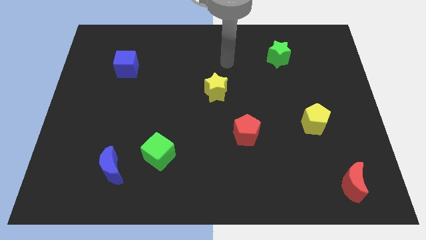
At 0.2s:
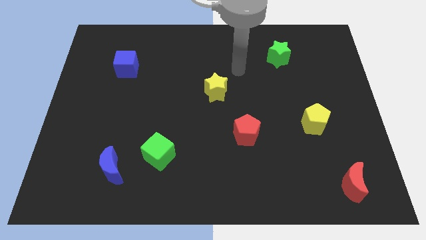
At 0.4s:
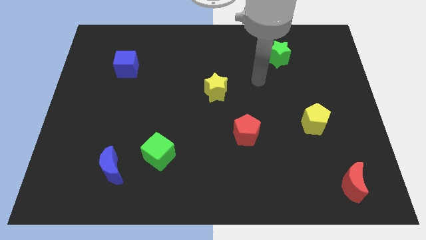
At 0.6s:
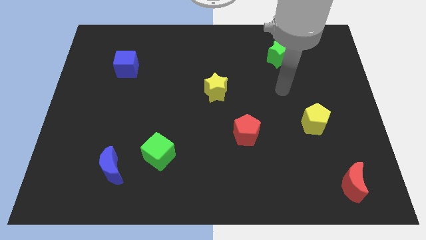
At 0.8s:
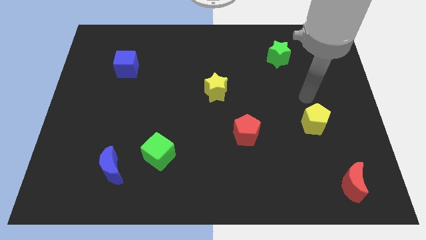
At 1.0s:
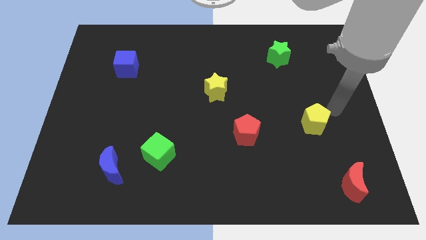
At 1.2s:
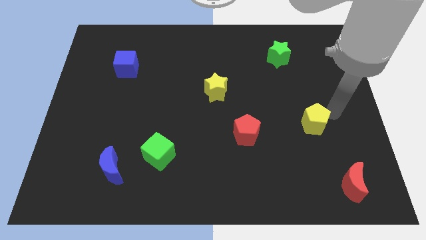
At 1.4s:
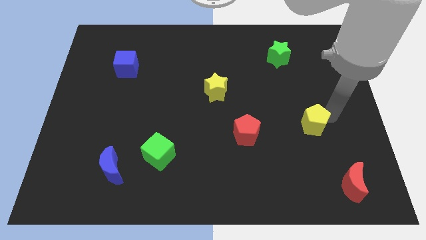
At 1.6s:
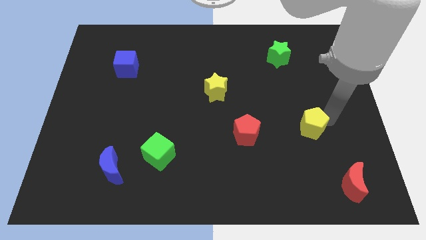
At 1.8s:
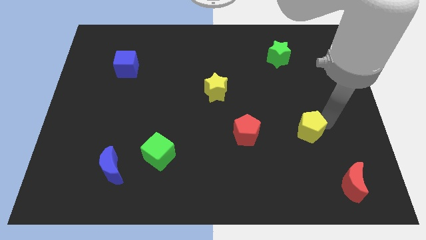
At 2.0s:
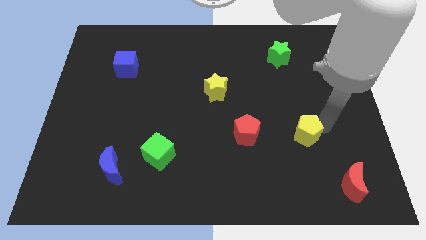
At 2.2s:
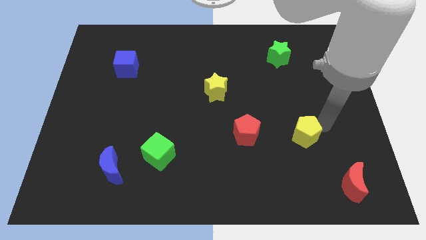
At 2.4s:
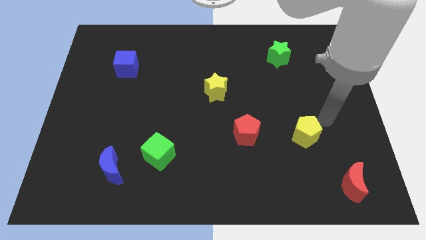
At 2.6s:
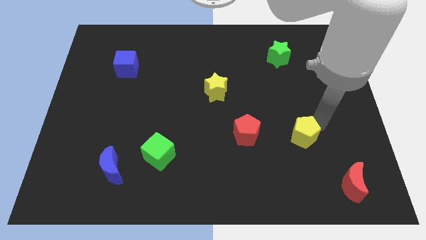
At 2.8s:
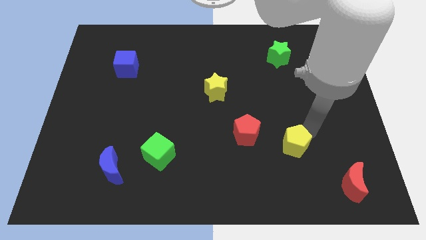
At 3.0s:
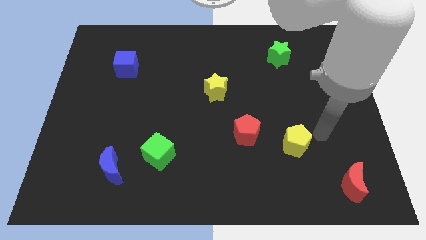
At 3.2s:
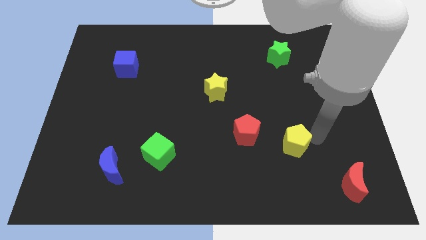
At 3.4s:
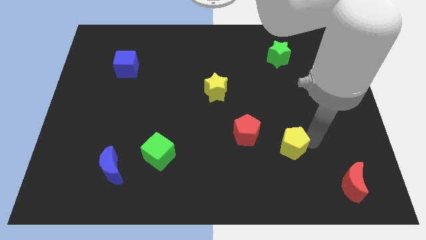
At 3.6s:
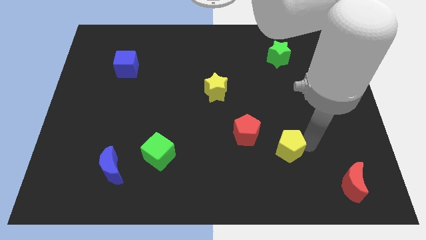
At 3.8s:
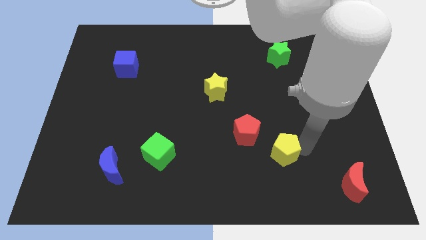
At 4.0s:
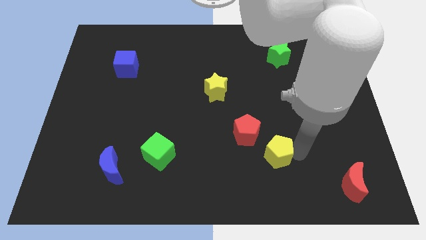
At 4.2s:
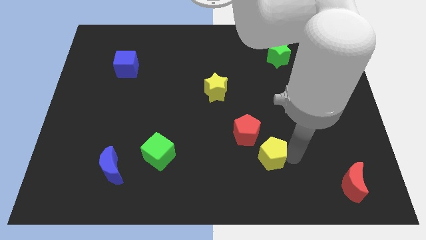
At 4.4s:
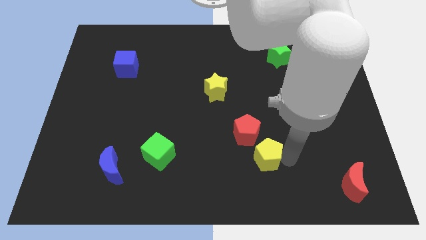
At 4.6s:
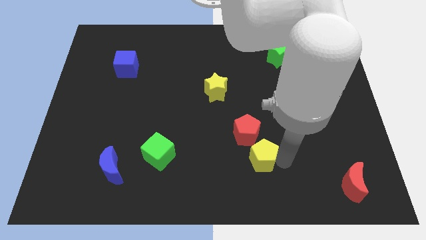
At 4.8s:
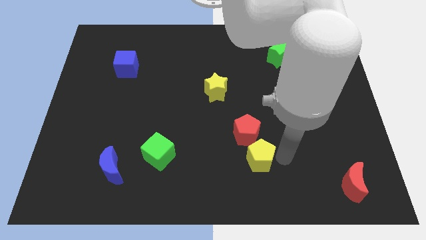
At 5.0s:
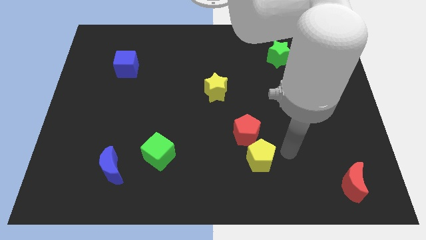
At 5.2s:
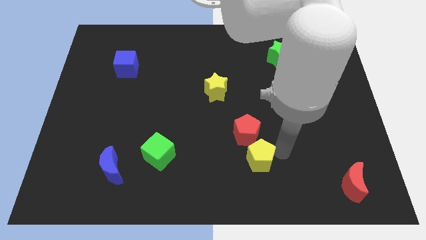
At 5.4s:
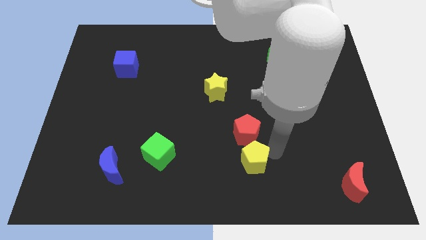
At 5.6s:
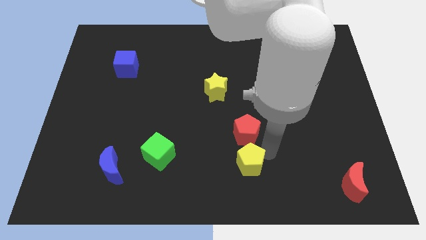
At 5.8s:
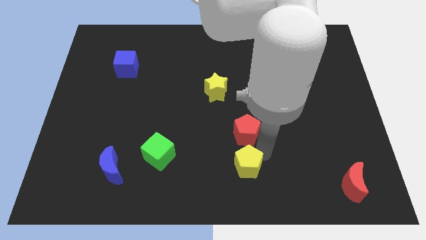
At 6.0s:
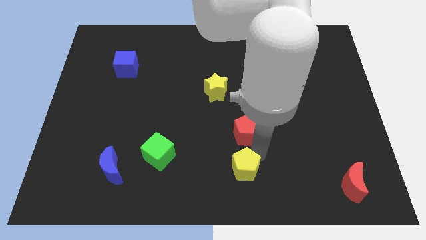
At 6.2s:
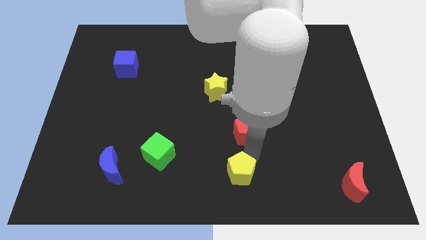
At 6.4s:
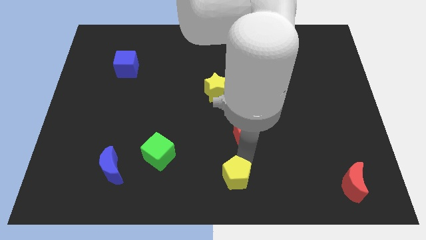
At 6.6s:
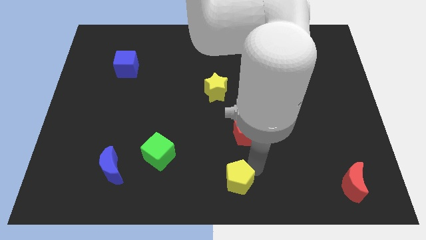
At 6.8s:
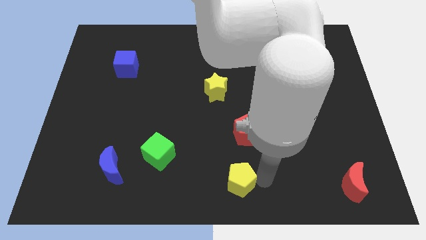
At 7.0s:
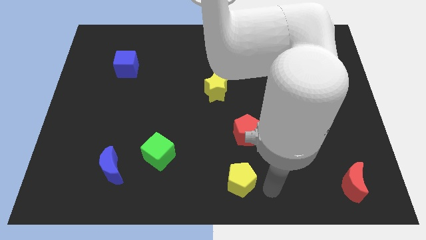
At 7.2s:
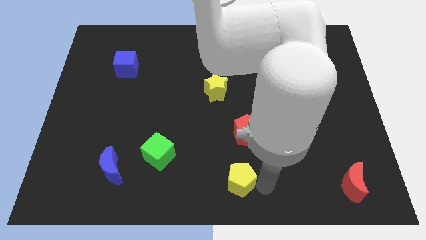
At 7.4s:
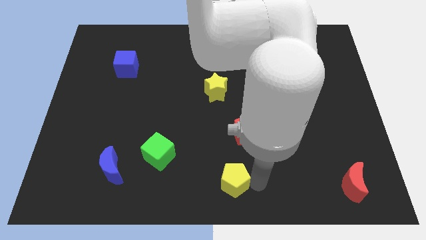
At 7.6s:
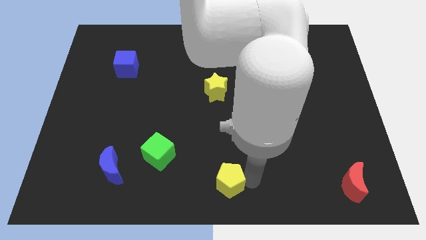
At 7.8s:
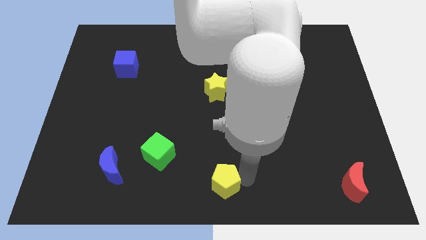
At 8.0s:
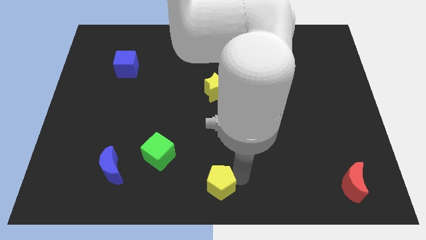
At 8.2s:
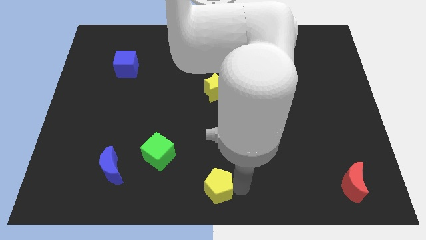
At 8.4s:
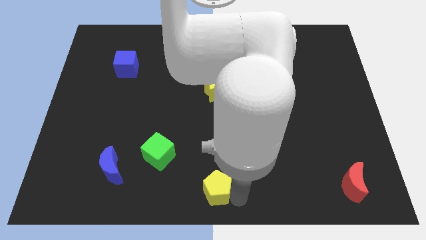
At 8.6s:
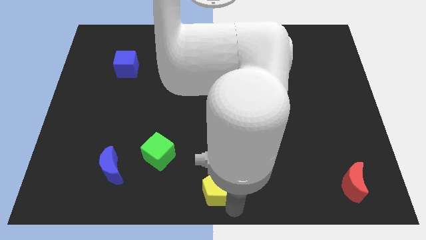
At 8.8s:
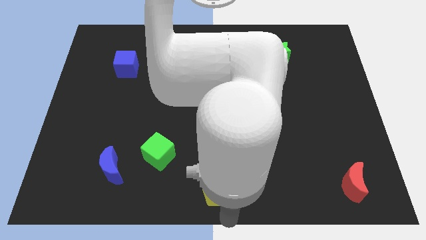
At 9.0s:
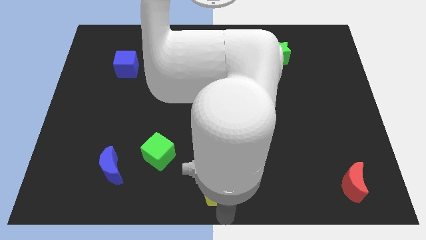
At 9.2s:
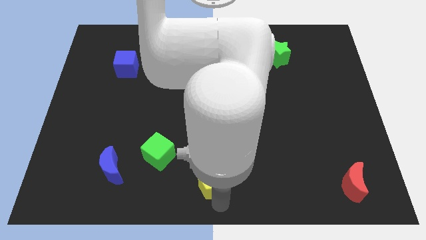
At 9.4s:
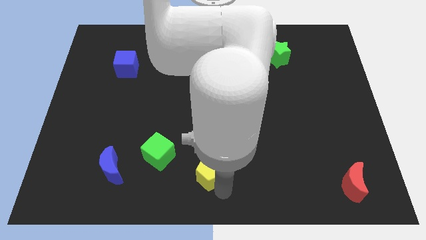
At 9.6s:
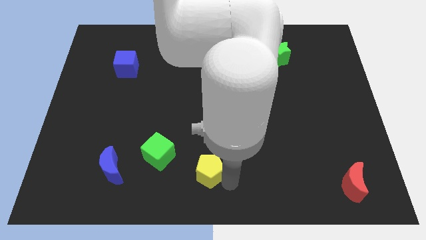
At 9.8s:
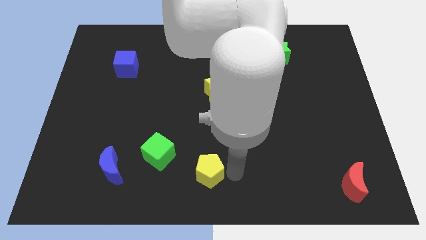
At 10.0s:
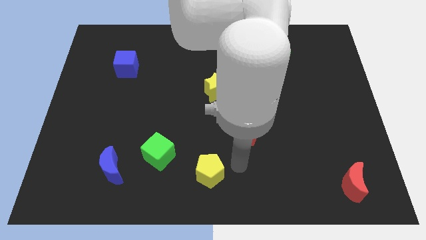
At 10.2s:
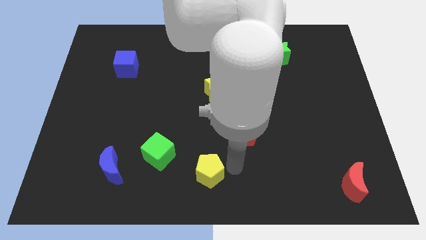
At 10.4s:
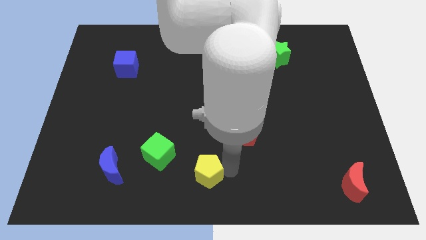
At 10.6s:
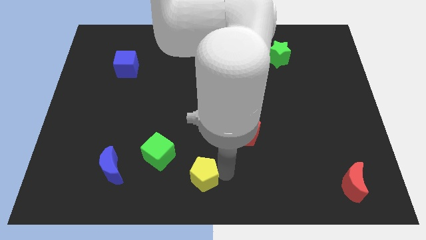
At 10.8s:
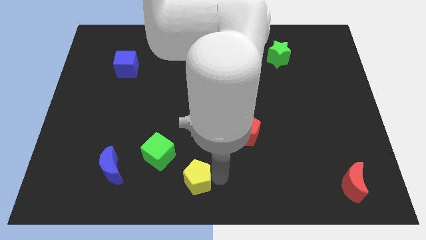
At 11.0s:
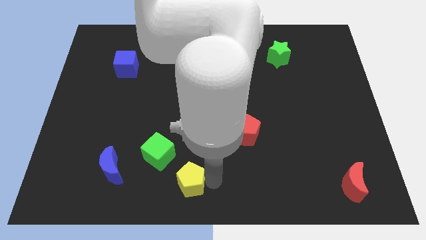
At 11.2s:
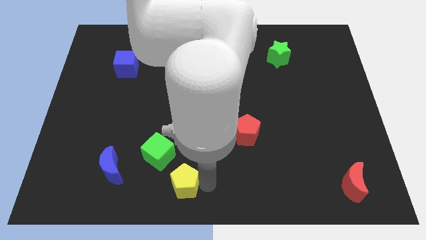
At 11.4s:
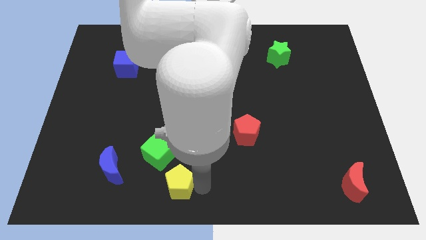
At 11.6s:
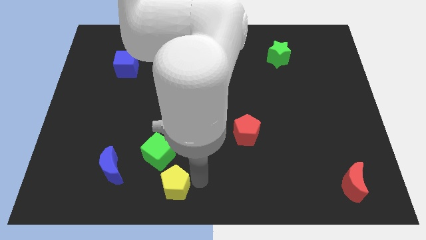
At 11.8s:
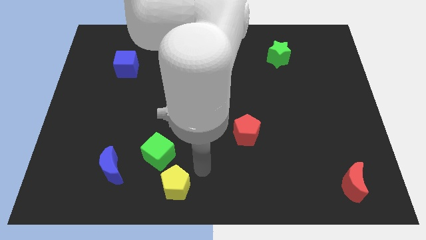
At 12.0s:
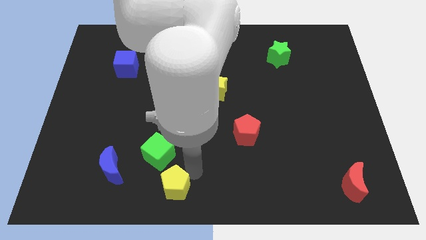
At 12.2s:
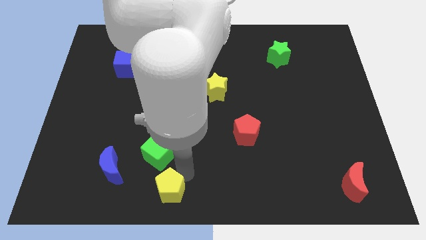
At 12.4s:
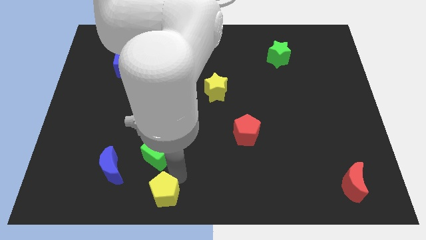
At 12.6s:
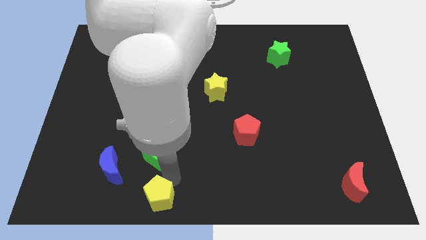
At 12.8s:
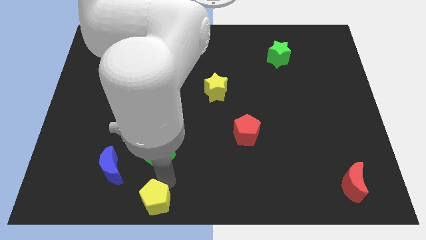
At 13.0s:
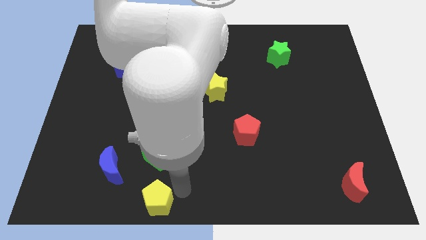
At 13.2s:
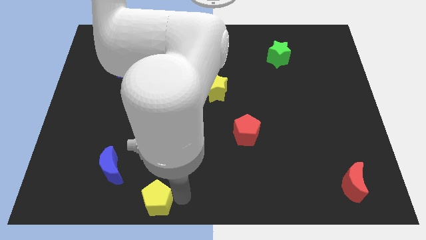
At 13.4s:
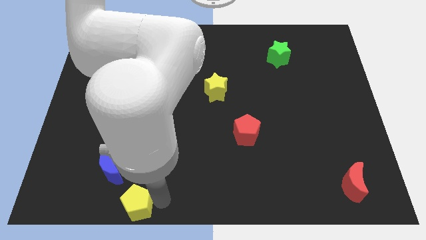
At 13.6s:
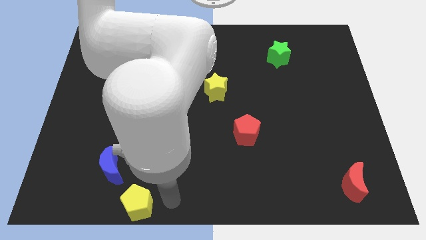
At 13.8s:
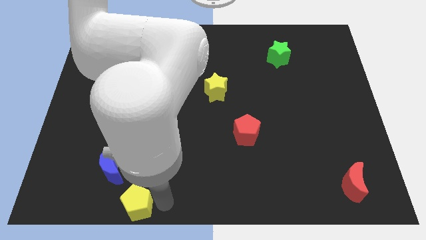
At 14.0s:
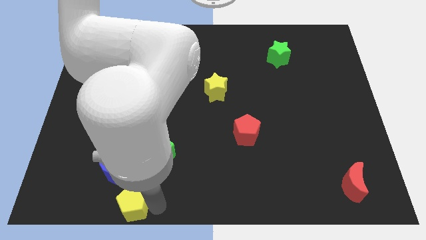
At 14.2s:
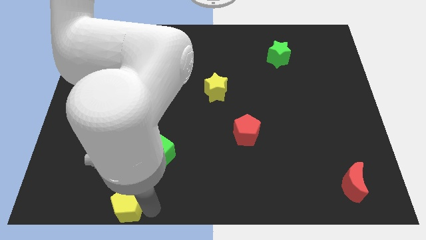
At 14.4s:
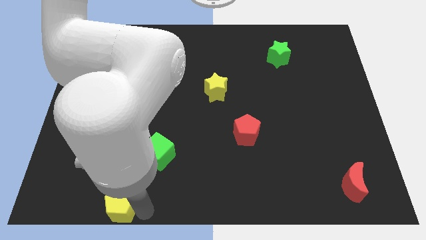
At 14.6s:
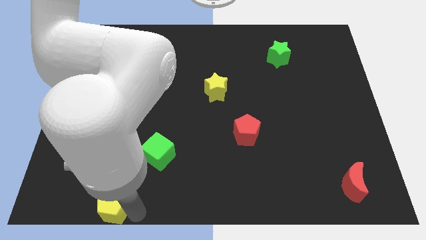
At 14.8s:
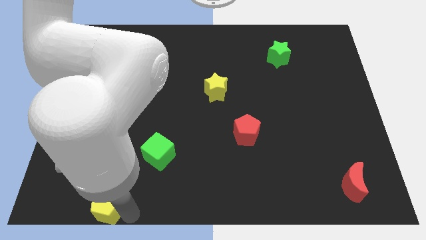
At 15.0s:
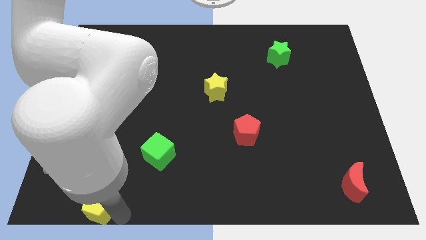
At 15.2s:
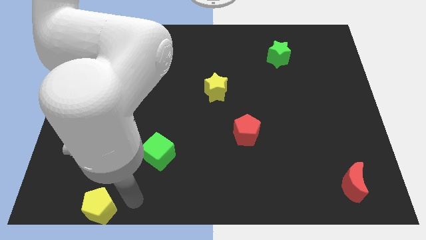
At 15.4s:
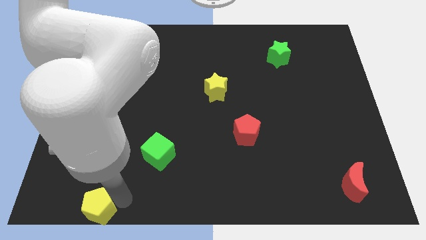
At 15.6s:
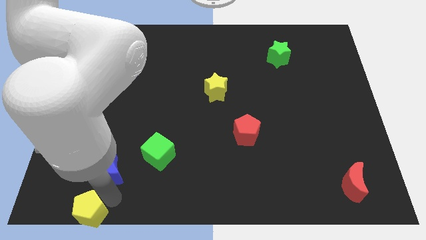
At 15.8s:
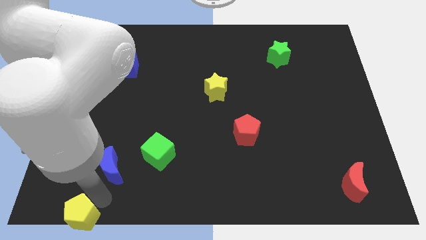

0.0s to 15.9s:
move the yellow pentagon to the bottom left corner
